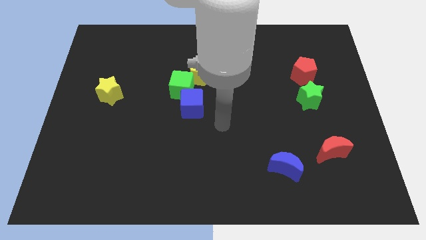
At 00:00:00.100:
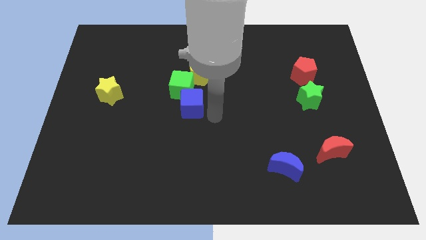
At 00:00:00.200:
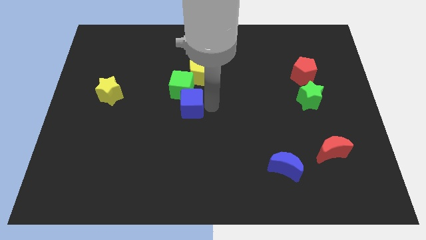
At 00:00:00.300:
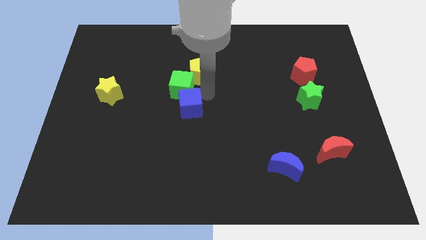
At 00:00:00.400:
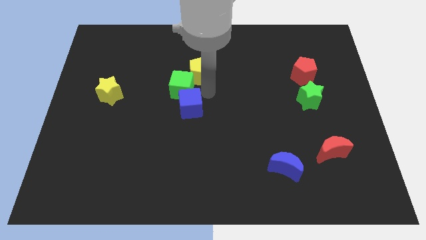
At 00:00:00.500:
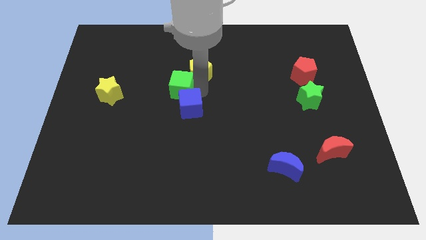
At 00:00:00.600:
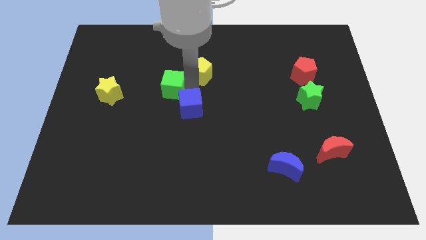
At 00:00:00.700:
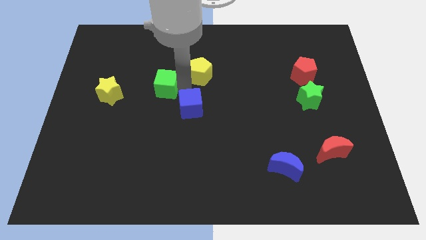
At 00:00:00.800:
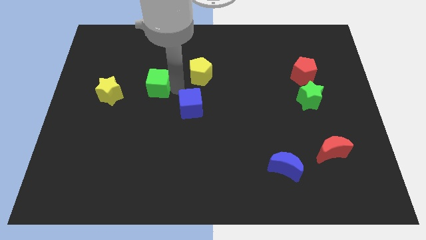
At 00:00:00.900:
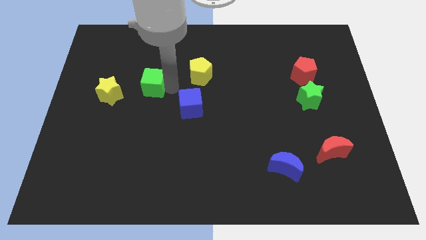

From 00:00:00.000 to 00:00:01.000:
separate the green cube from the yellow pentagon and blue cube

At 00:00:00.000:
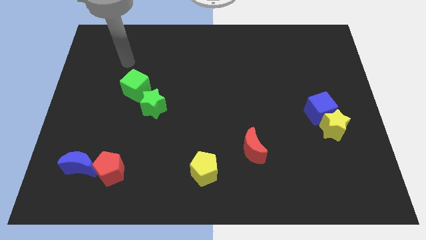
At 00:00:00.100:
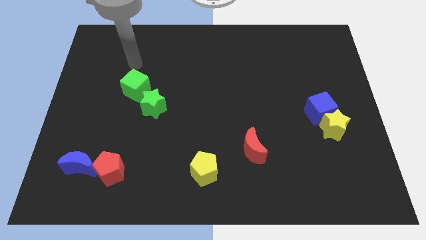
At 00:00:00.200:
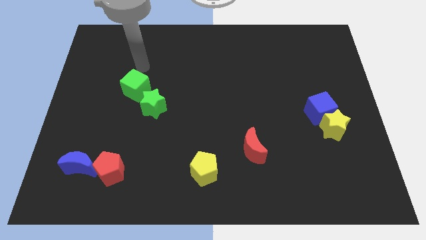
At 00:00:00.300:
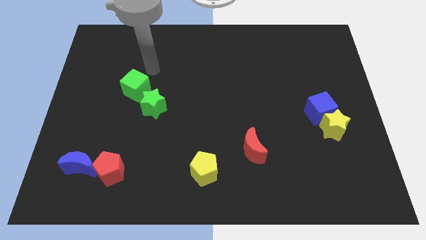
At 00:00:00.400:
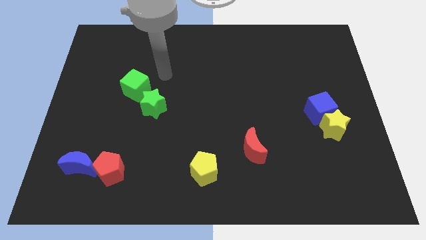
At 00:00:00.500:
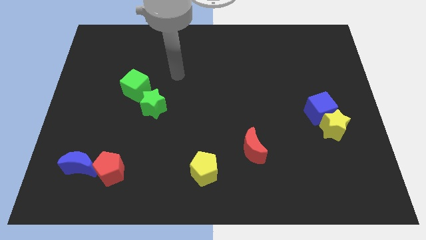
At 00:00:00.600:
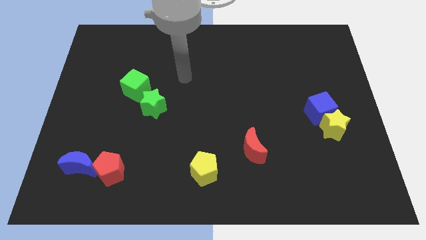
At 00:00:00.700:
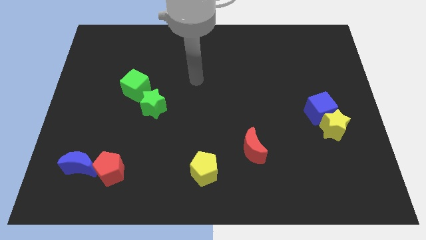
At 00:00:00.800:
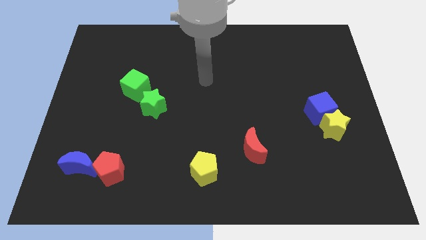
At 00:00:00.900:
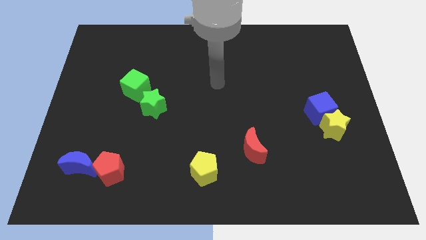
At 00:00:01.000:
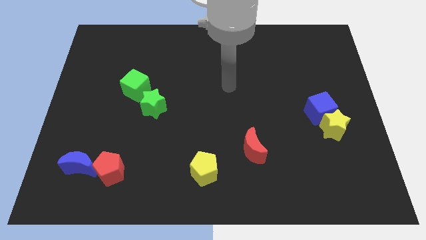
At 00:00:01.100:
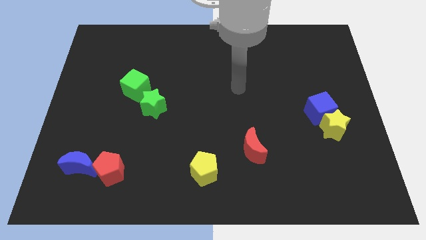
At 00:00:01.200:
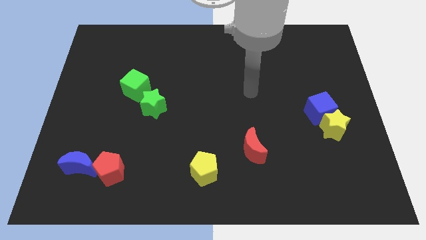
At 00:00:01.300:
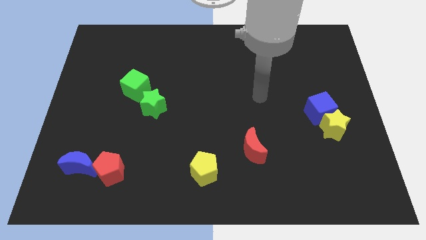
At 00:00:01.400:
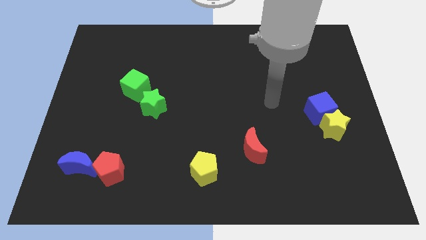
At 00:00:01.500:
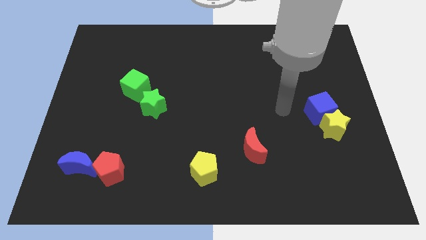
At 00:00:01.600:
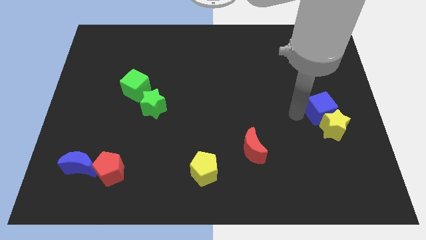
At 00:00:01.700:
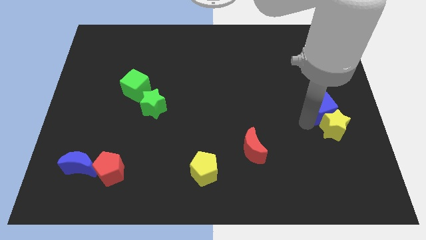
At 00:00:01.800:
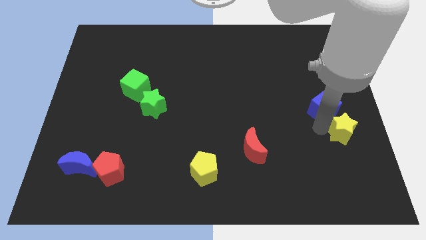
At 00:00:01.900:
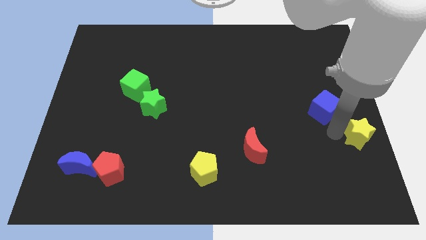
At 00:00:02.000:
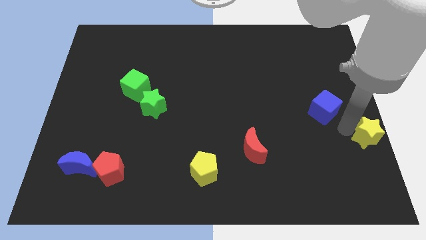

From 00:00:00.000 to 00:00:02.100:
separate the blue cube from the yellow star

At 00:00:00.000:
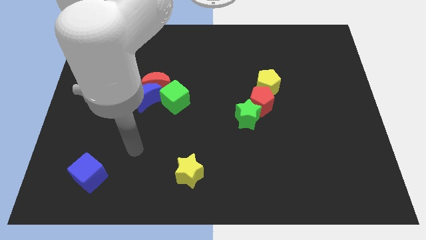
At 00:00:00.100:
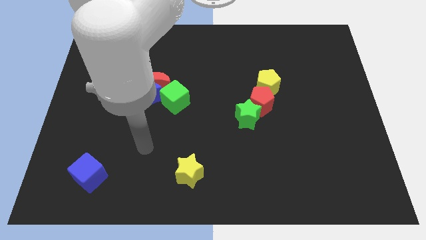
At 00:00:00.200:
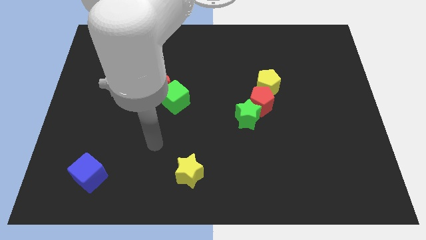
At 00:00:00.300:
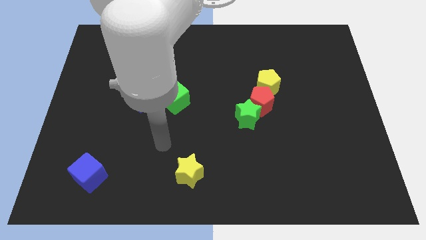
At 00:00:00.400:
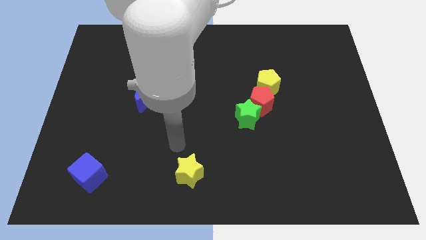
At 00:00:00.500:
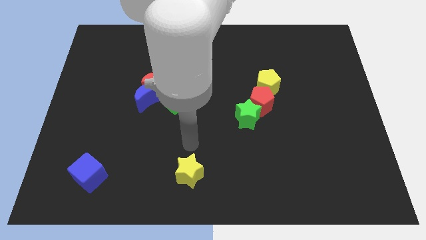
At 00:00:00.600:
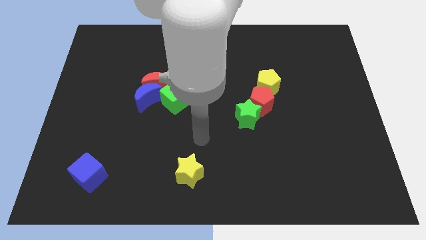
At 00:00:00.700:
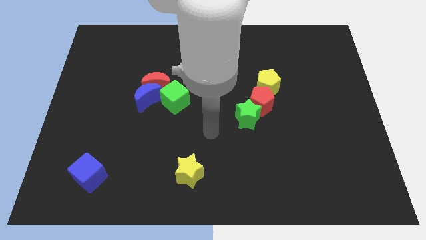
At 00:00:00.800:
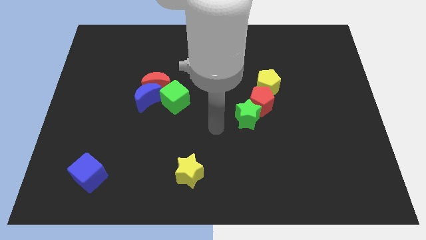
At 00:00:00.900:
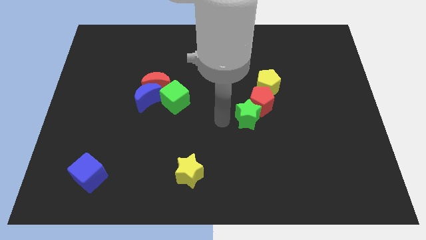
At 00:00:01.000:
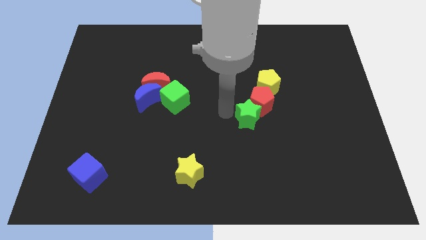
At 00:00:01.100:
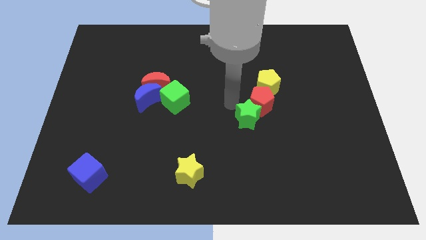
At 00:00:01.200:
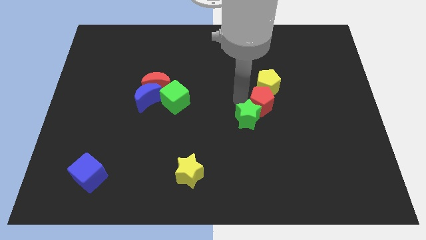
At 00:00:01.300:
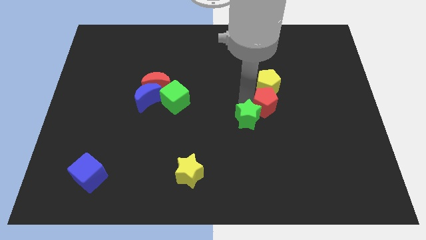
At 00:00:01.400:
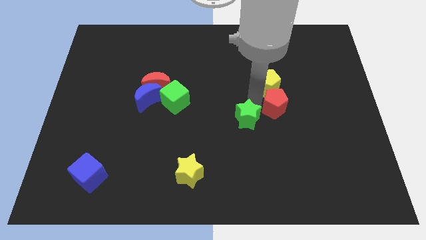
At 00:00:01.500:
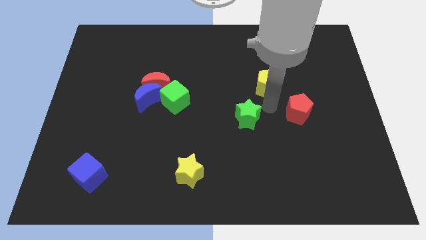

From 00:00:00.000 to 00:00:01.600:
separate the green star from the red pentagon

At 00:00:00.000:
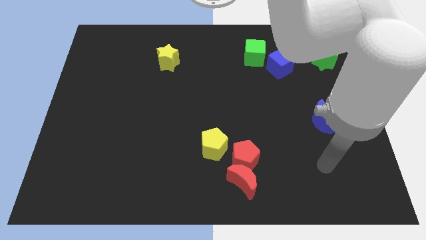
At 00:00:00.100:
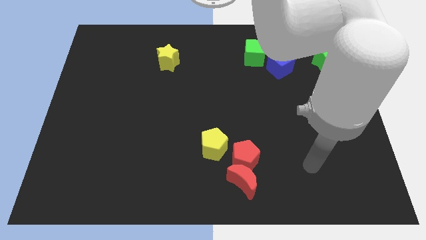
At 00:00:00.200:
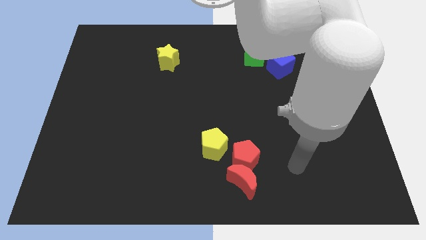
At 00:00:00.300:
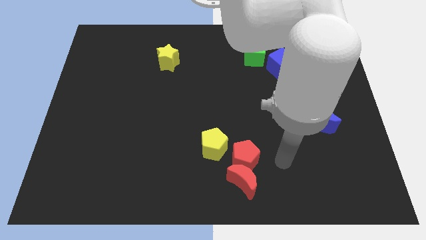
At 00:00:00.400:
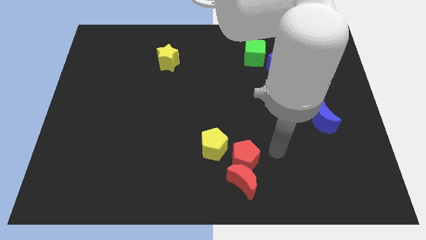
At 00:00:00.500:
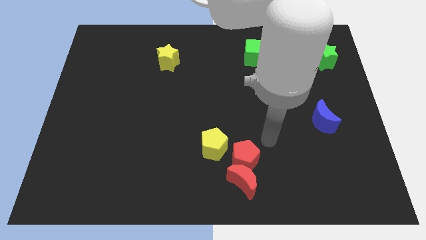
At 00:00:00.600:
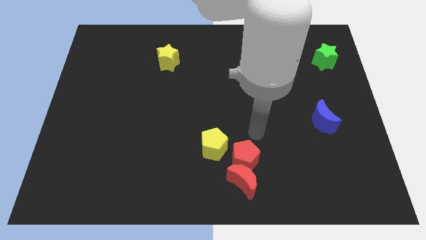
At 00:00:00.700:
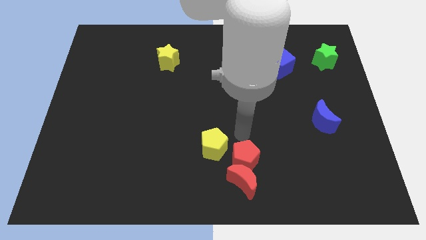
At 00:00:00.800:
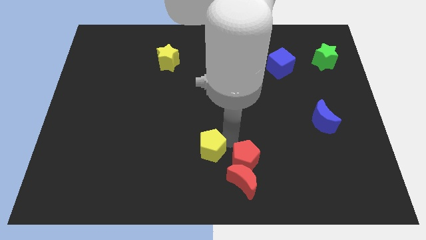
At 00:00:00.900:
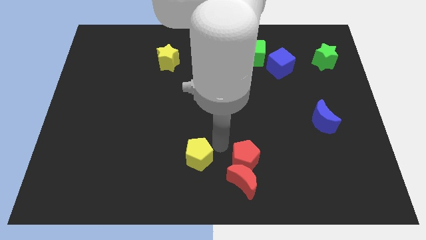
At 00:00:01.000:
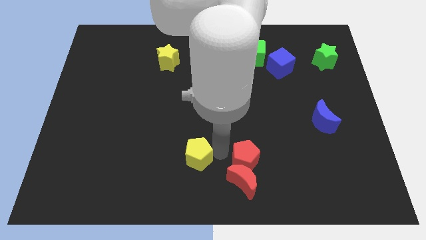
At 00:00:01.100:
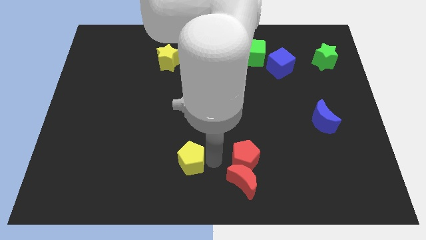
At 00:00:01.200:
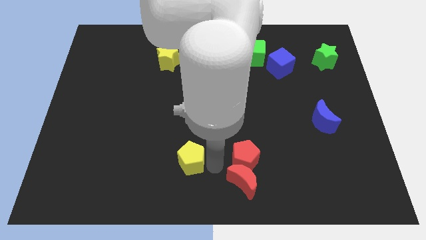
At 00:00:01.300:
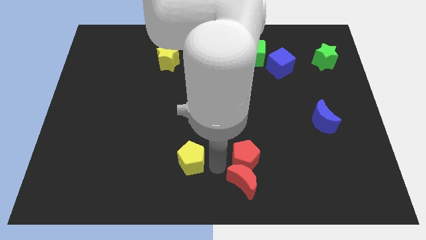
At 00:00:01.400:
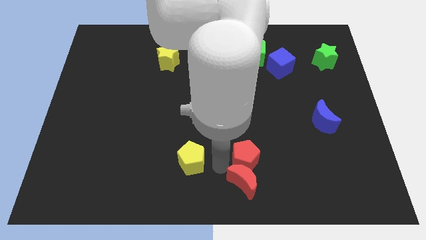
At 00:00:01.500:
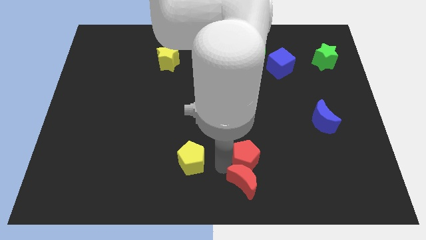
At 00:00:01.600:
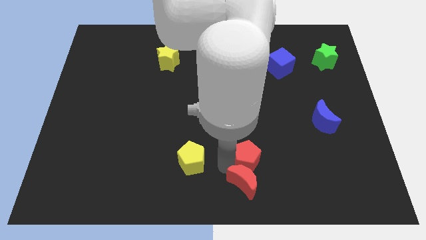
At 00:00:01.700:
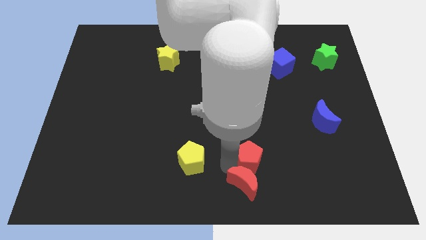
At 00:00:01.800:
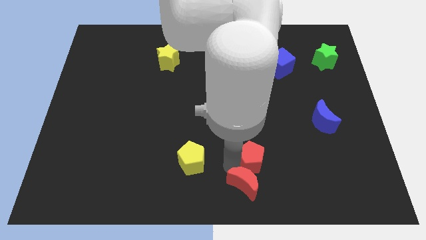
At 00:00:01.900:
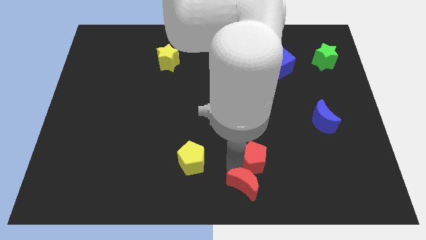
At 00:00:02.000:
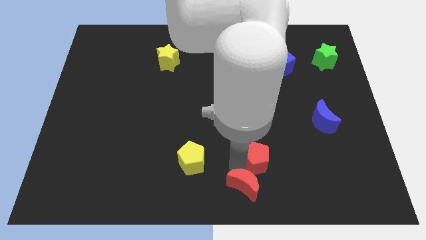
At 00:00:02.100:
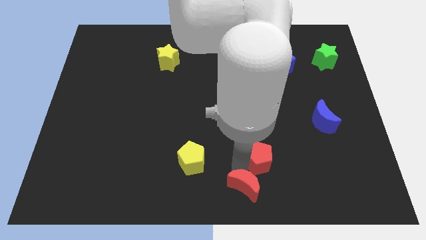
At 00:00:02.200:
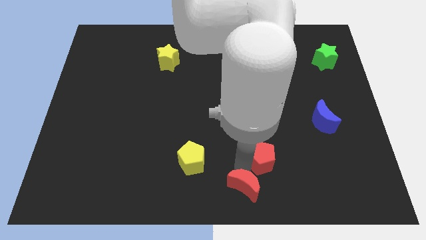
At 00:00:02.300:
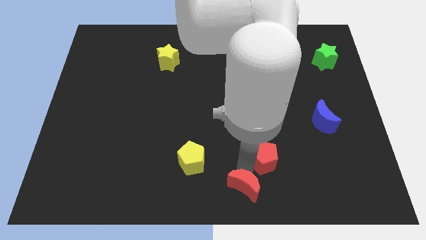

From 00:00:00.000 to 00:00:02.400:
separate the red pentagon from the red moon and yellow pentagon

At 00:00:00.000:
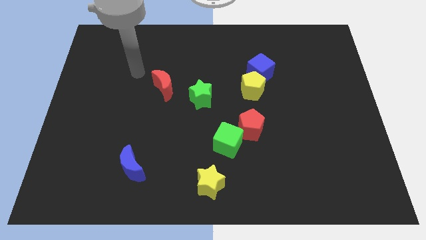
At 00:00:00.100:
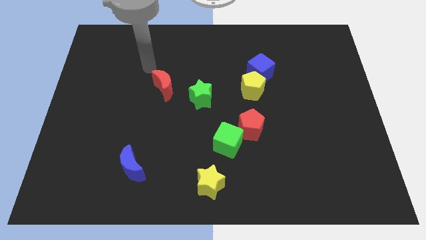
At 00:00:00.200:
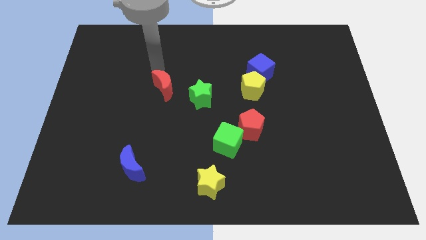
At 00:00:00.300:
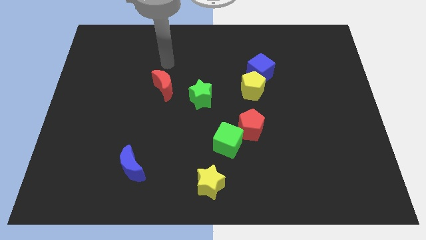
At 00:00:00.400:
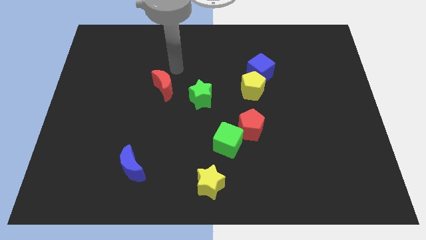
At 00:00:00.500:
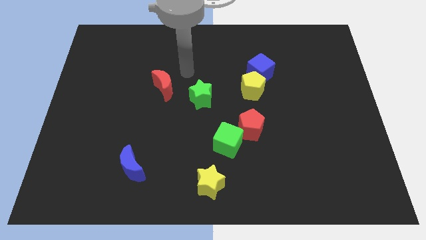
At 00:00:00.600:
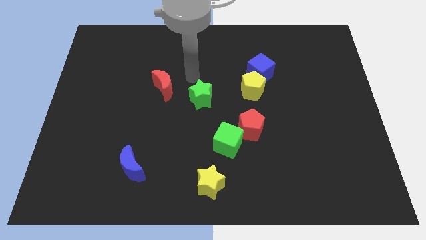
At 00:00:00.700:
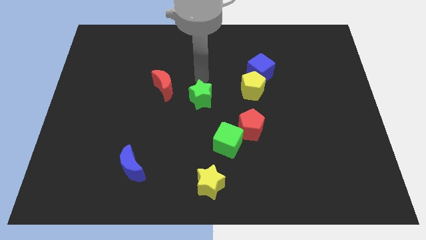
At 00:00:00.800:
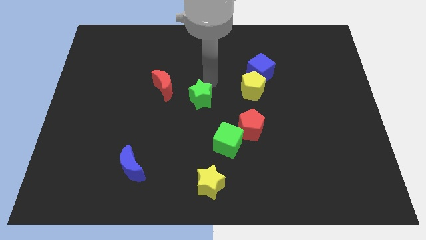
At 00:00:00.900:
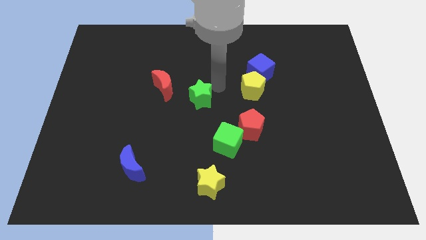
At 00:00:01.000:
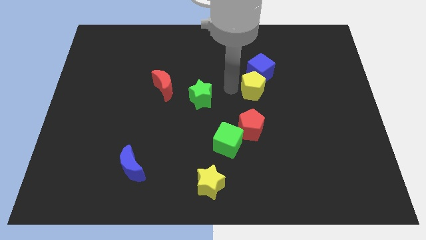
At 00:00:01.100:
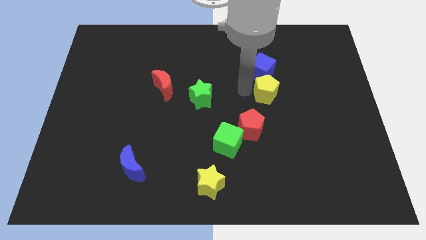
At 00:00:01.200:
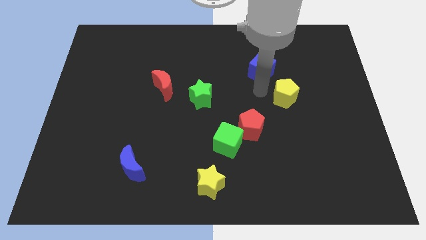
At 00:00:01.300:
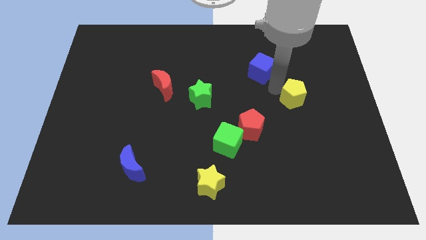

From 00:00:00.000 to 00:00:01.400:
pull the blue cube apart from the yellow pentagon

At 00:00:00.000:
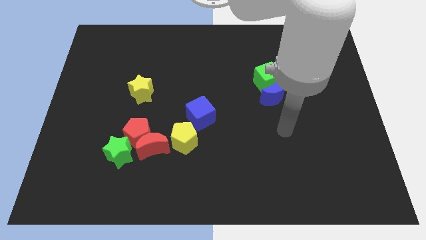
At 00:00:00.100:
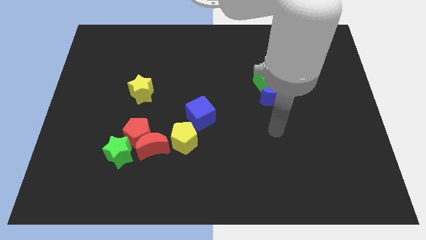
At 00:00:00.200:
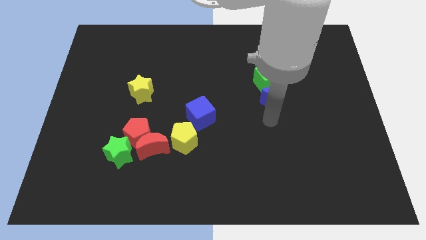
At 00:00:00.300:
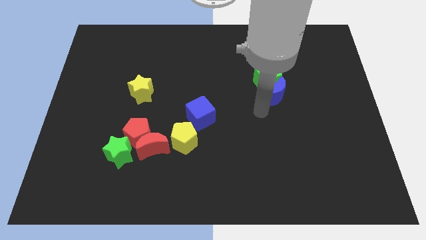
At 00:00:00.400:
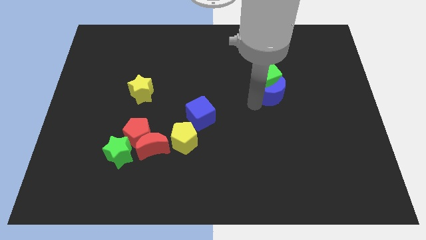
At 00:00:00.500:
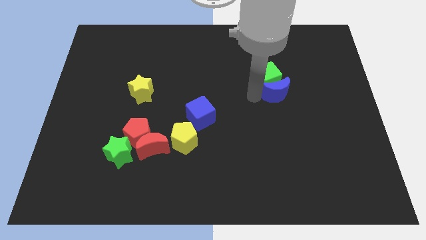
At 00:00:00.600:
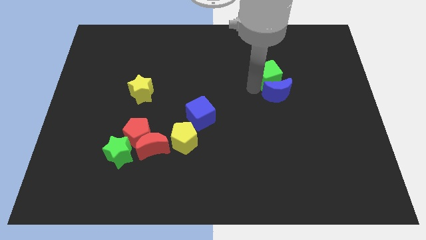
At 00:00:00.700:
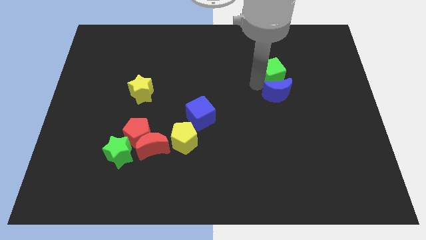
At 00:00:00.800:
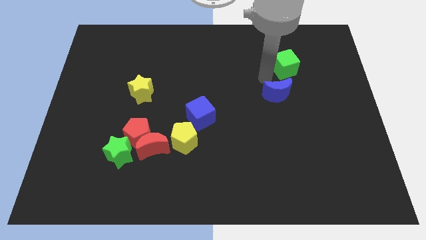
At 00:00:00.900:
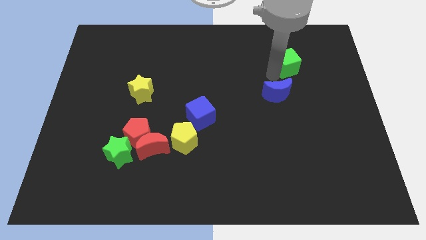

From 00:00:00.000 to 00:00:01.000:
pull the blue moon apart from the green cube
